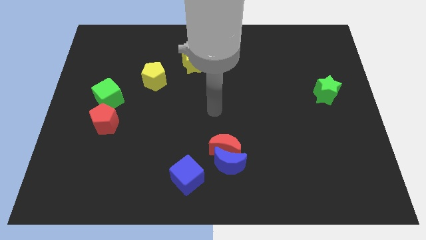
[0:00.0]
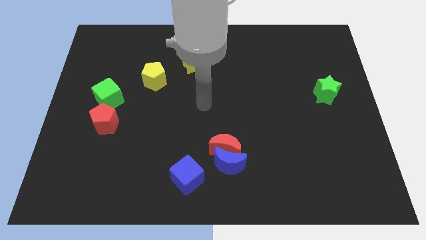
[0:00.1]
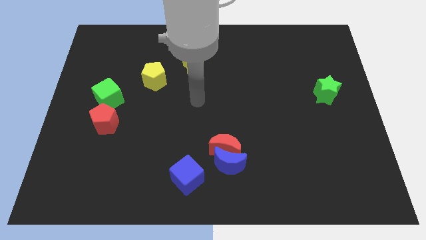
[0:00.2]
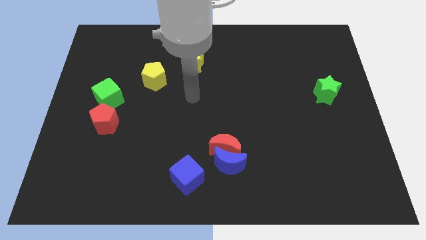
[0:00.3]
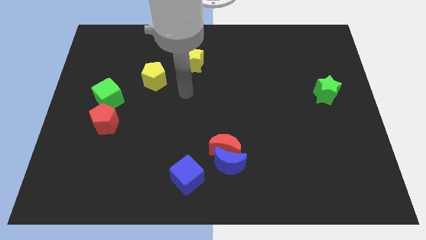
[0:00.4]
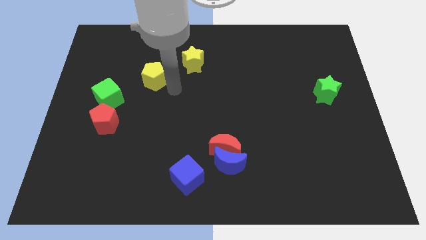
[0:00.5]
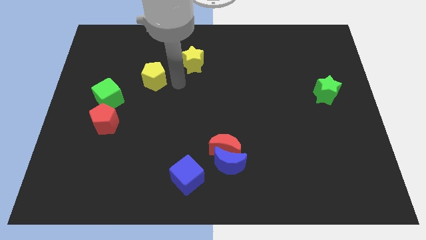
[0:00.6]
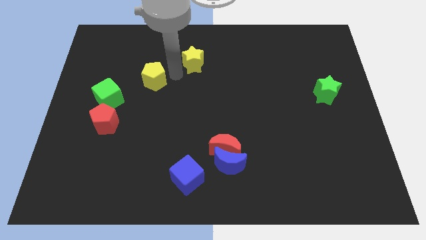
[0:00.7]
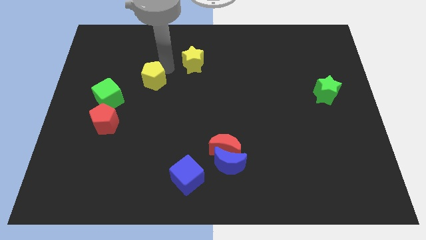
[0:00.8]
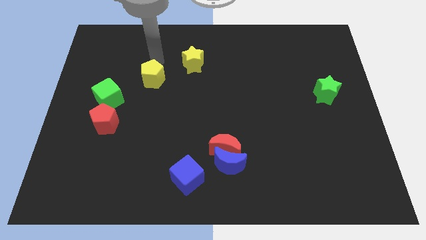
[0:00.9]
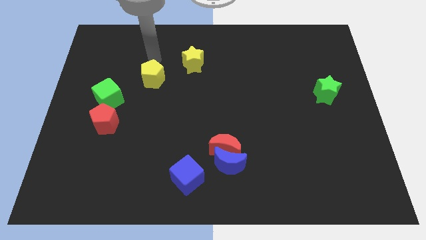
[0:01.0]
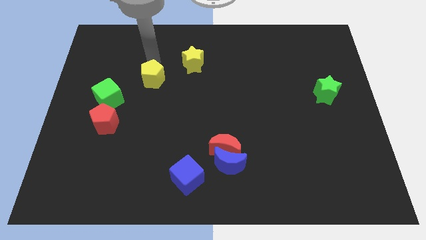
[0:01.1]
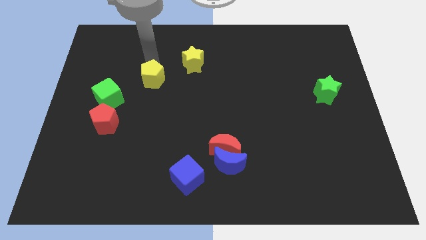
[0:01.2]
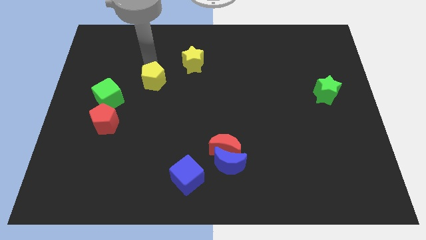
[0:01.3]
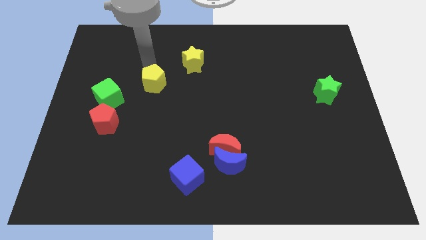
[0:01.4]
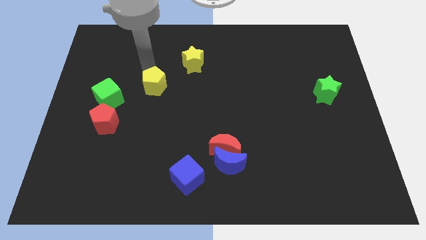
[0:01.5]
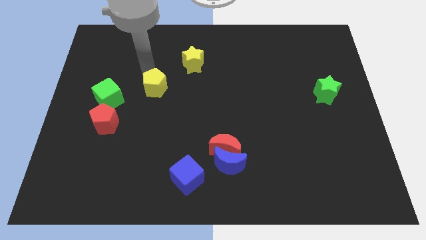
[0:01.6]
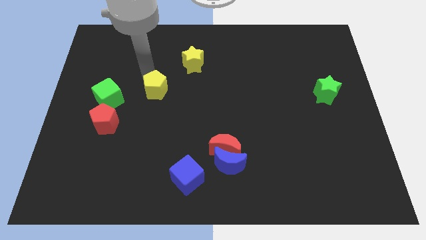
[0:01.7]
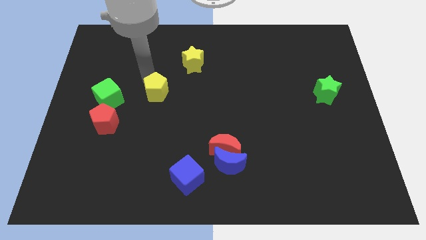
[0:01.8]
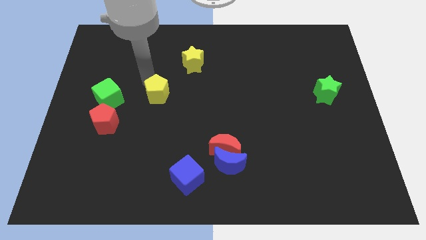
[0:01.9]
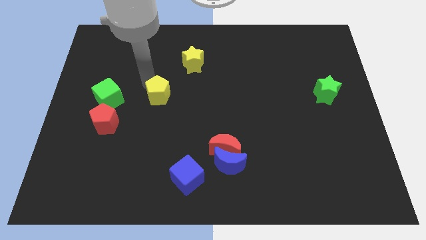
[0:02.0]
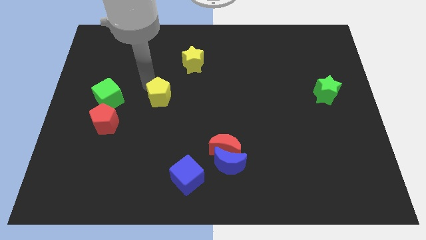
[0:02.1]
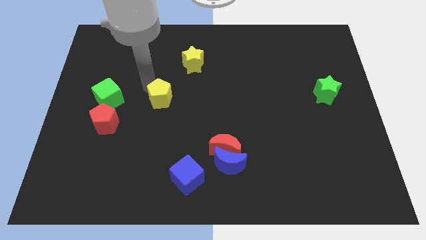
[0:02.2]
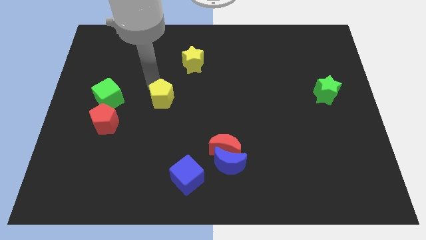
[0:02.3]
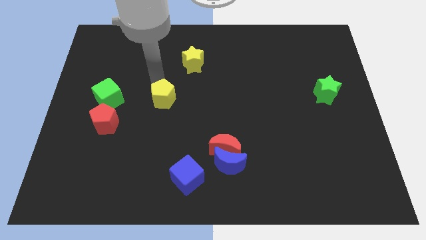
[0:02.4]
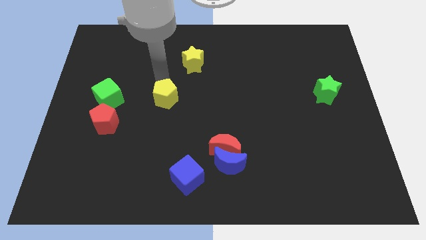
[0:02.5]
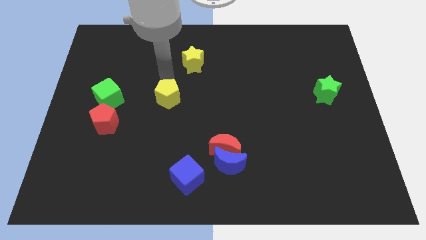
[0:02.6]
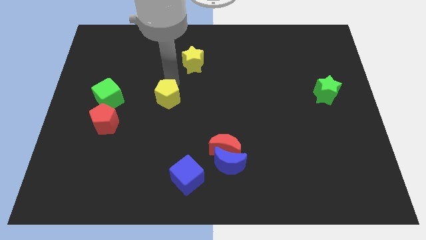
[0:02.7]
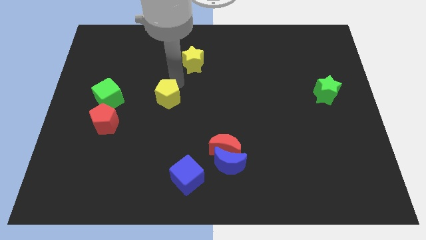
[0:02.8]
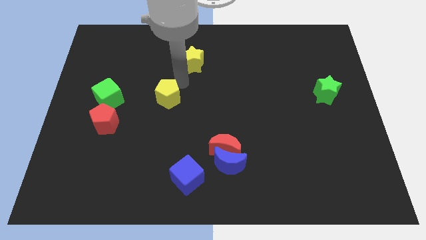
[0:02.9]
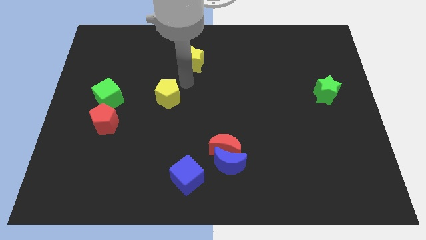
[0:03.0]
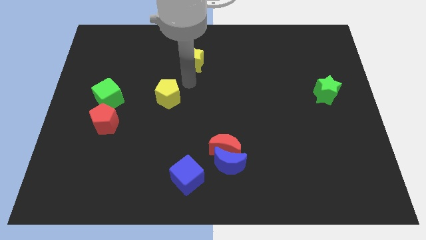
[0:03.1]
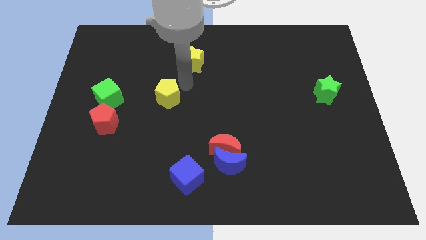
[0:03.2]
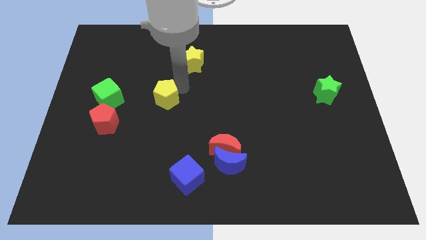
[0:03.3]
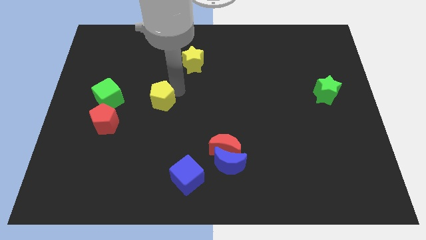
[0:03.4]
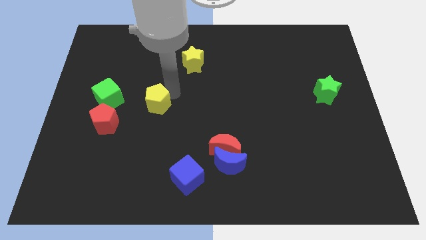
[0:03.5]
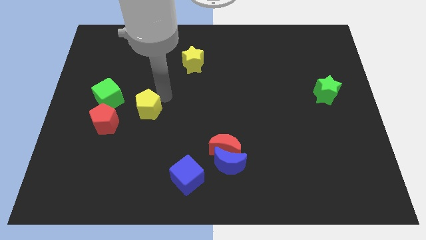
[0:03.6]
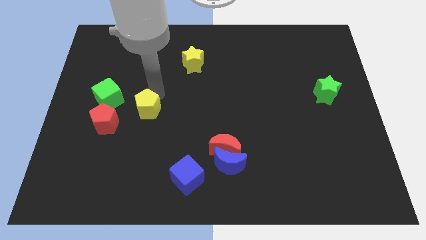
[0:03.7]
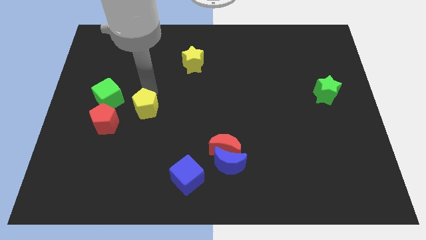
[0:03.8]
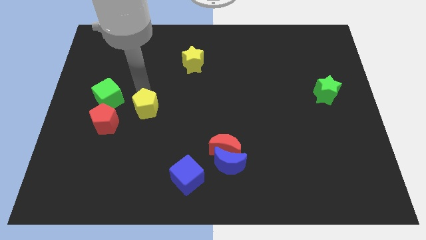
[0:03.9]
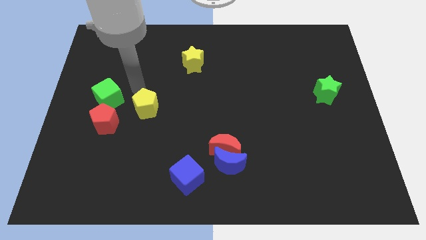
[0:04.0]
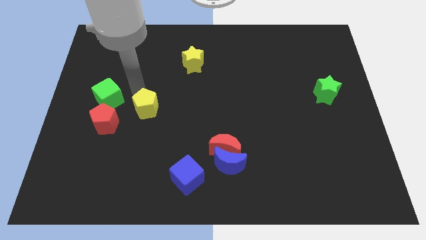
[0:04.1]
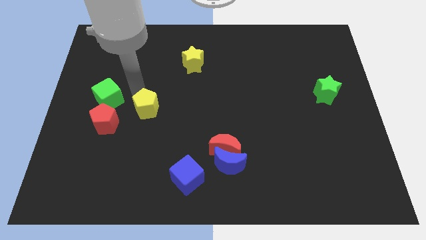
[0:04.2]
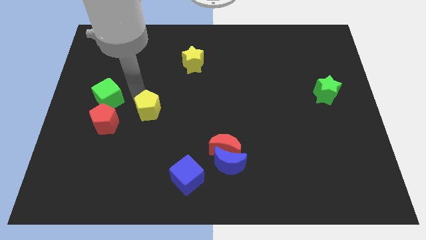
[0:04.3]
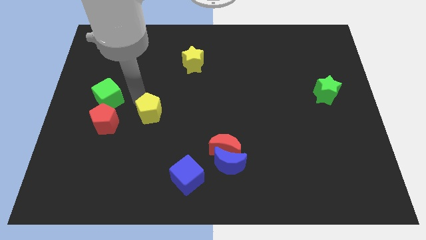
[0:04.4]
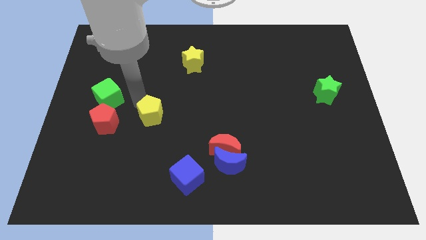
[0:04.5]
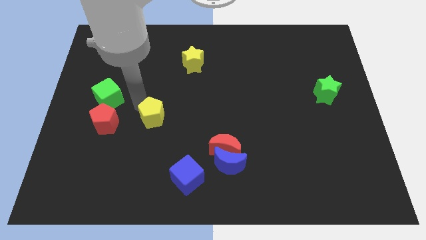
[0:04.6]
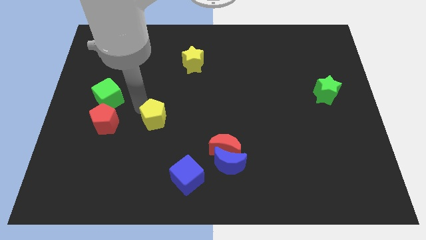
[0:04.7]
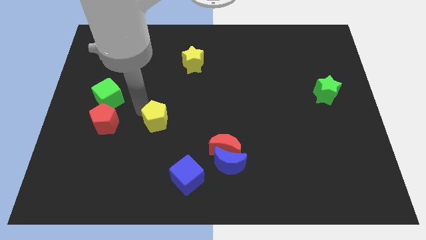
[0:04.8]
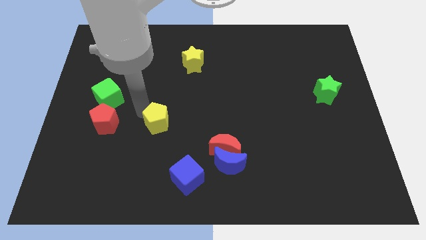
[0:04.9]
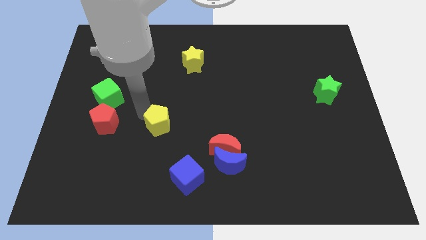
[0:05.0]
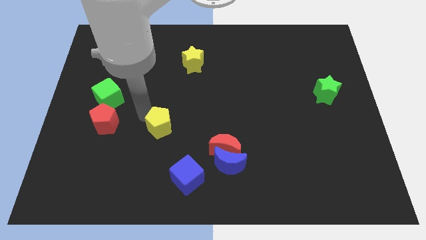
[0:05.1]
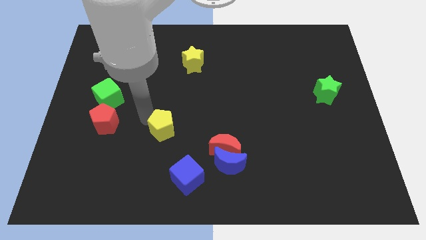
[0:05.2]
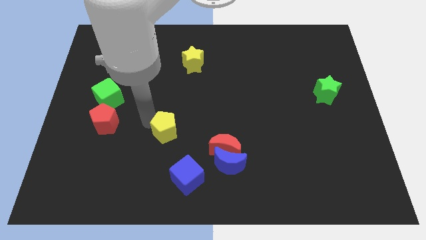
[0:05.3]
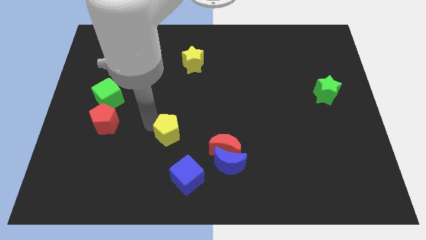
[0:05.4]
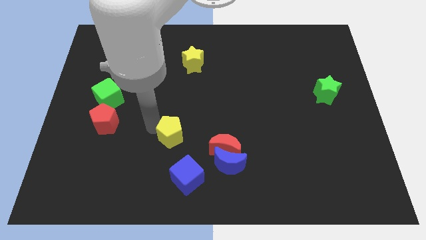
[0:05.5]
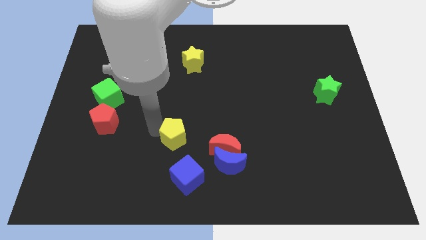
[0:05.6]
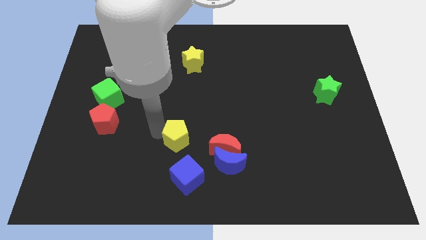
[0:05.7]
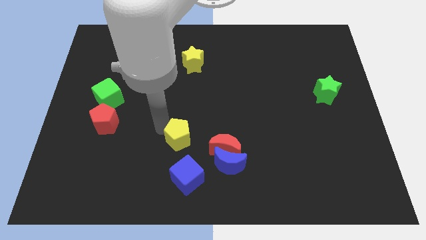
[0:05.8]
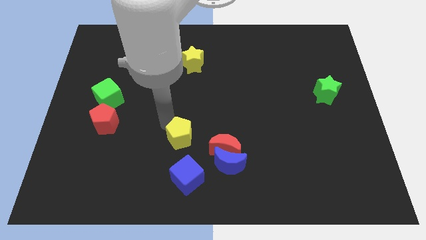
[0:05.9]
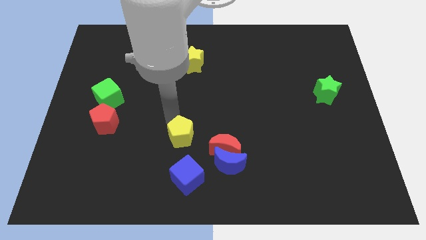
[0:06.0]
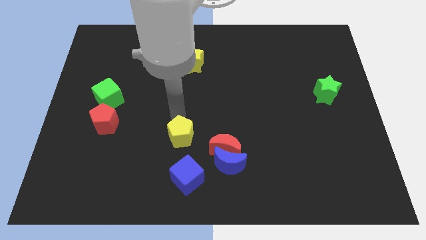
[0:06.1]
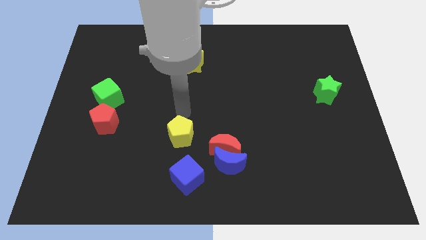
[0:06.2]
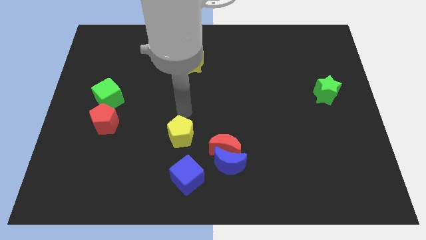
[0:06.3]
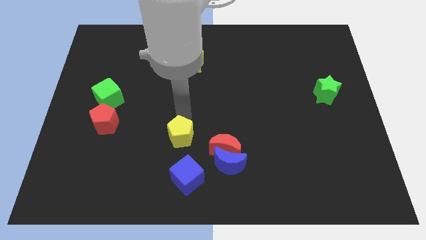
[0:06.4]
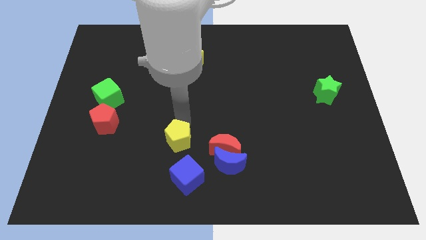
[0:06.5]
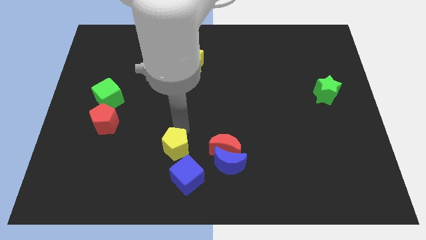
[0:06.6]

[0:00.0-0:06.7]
move the yellow pentagon just left of the blue moon

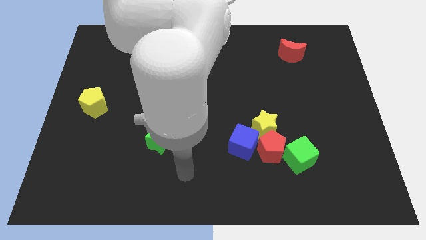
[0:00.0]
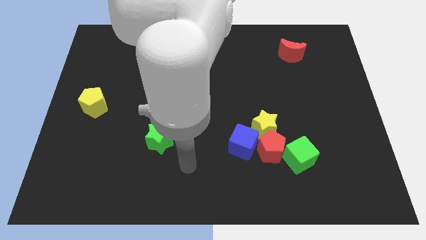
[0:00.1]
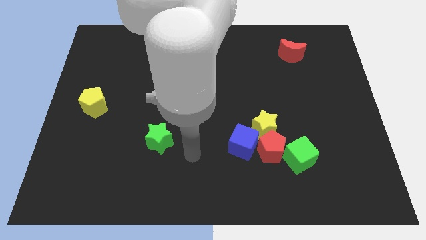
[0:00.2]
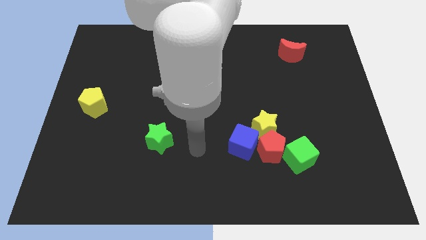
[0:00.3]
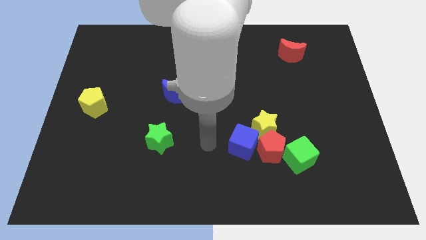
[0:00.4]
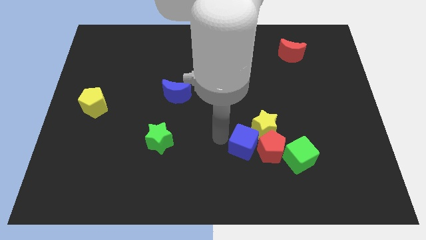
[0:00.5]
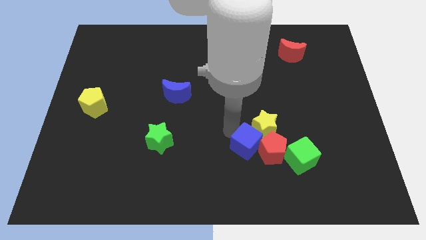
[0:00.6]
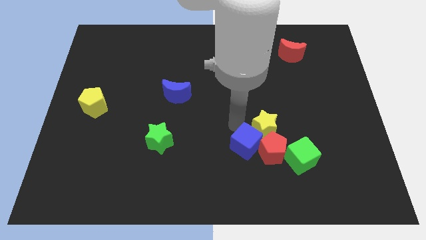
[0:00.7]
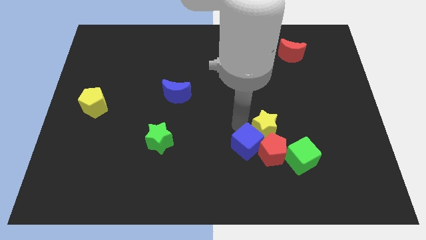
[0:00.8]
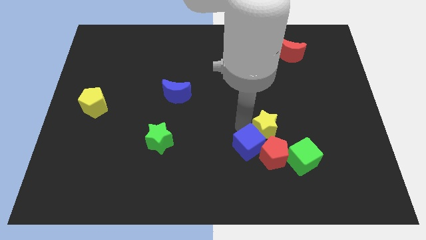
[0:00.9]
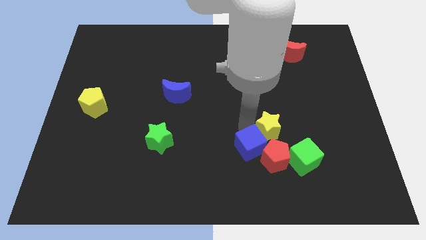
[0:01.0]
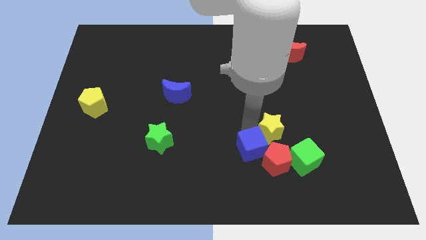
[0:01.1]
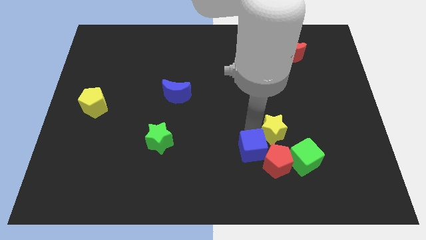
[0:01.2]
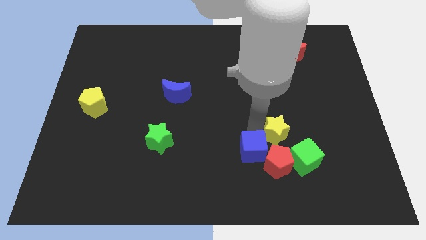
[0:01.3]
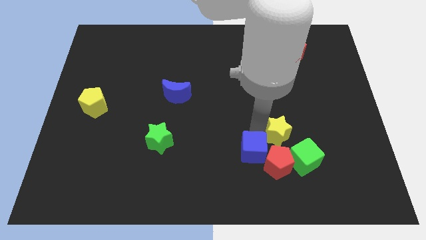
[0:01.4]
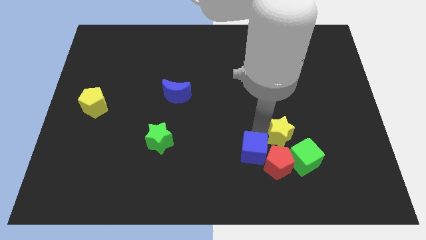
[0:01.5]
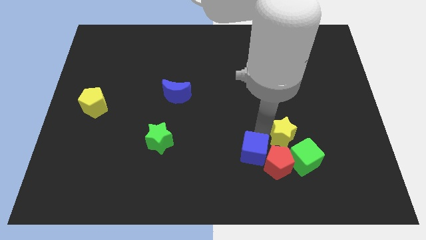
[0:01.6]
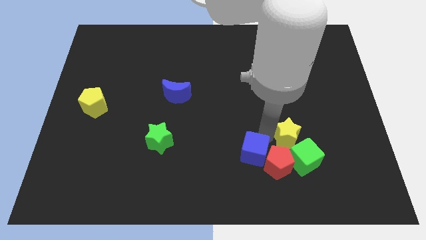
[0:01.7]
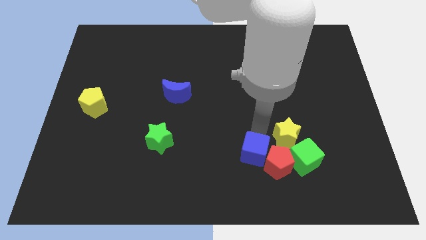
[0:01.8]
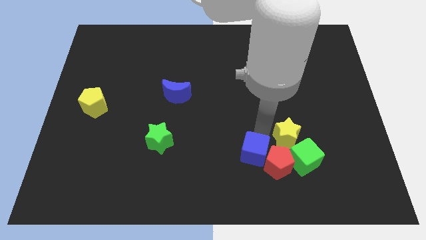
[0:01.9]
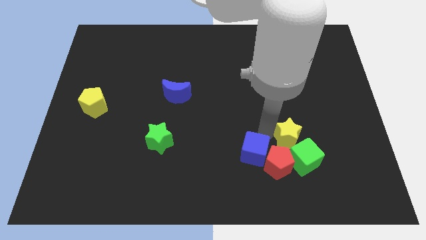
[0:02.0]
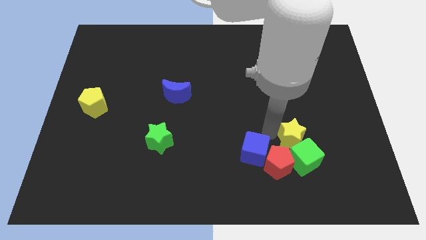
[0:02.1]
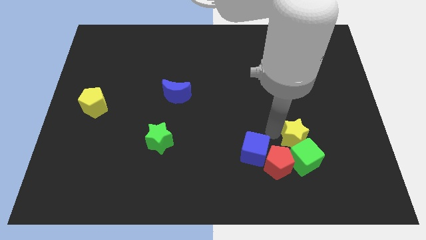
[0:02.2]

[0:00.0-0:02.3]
move the yellow star diagonally up and to the right of the green cube
